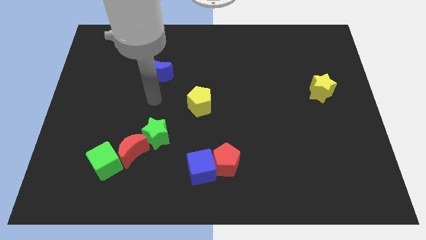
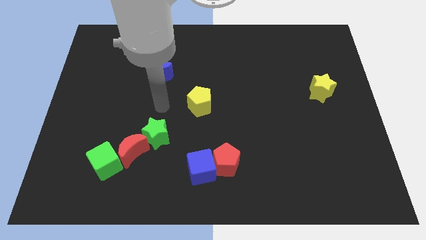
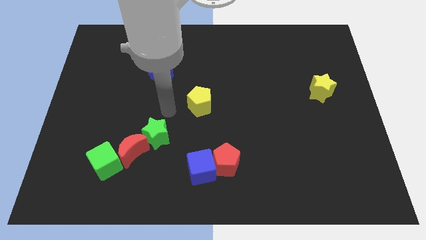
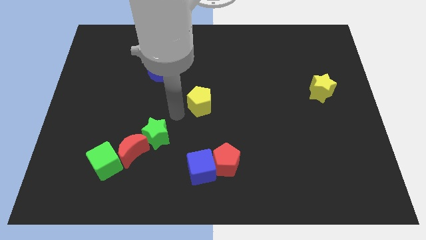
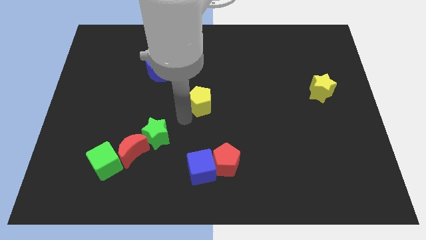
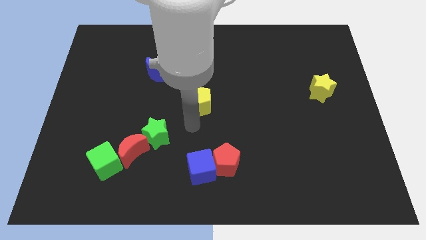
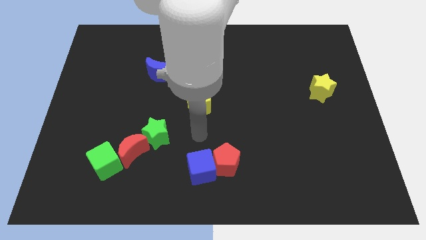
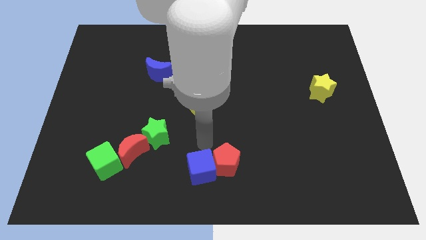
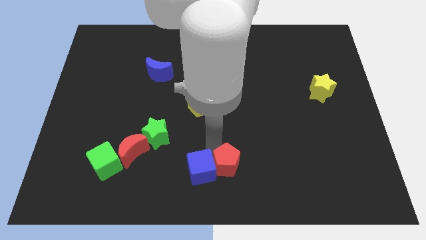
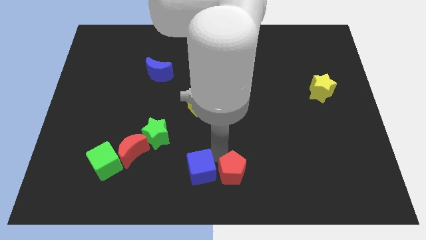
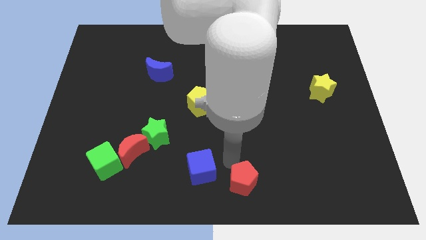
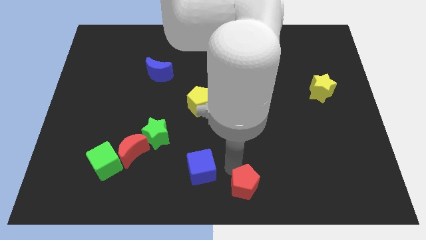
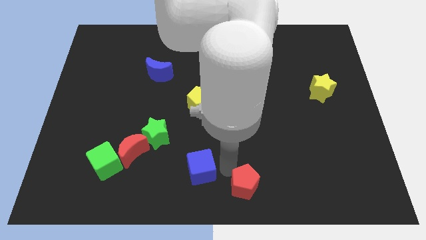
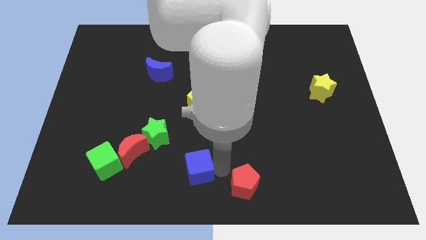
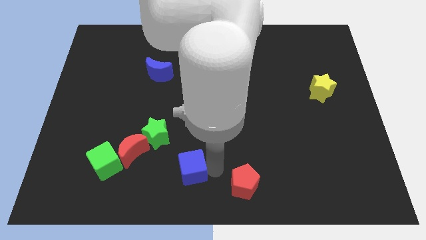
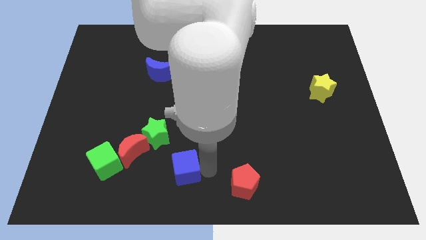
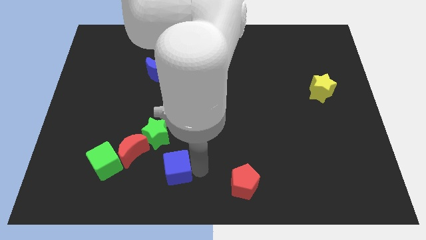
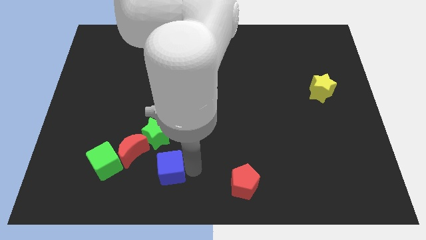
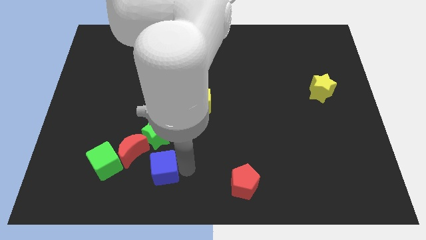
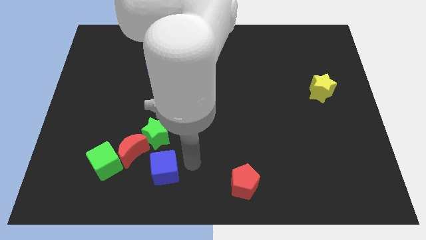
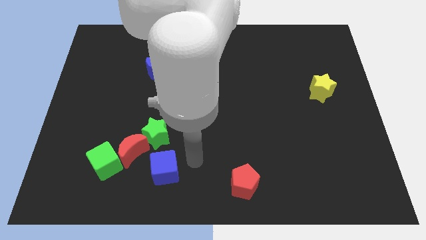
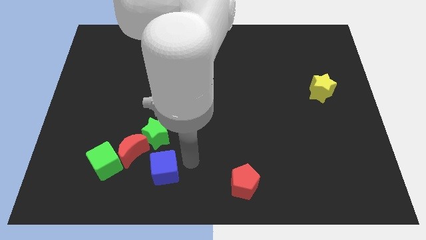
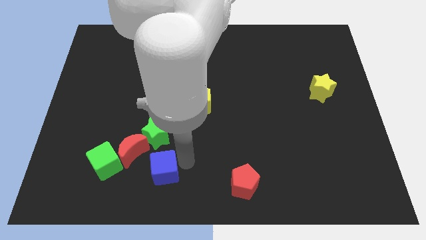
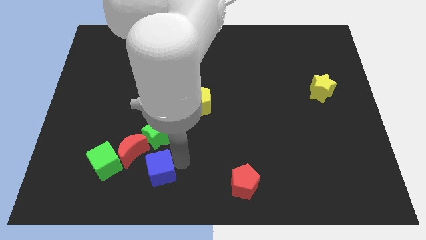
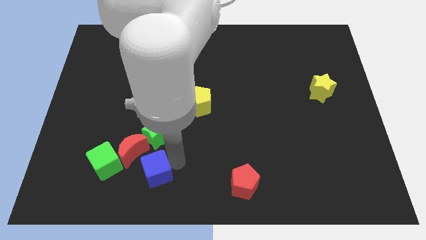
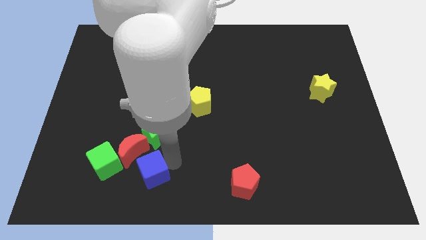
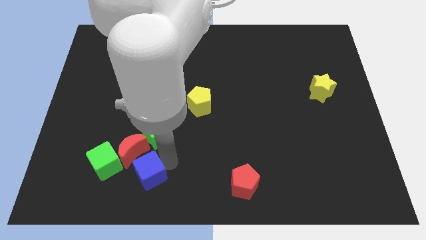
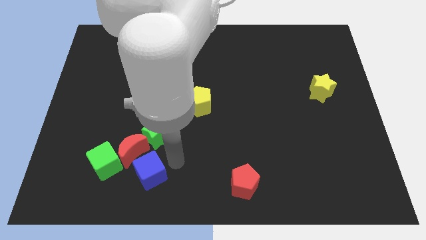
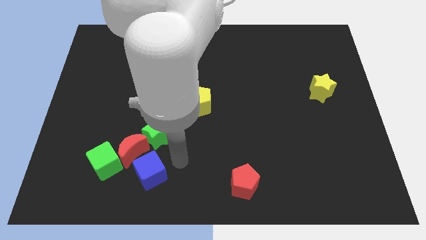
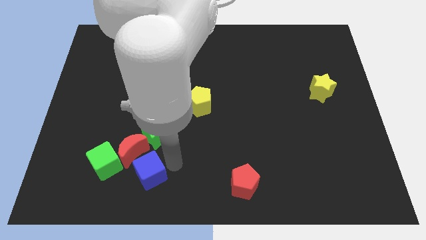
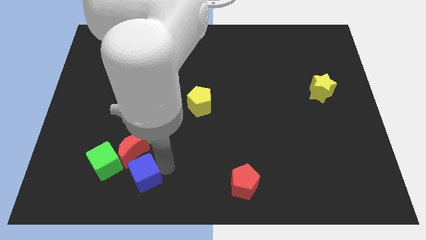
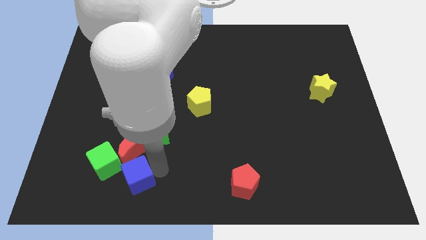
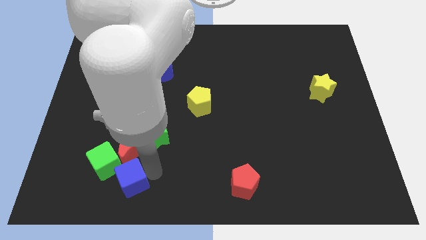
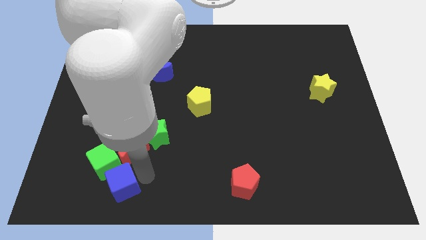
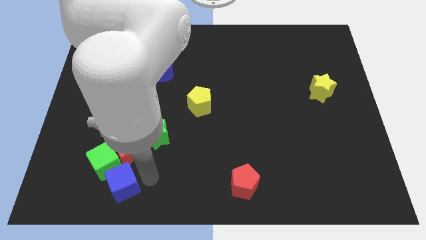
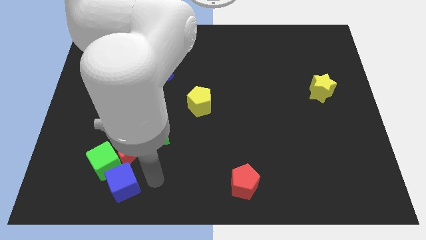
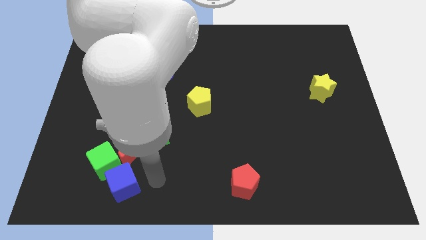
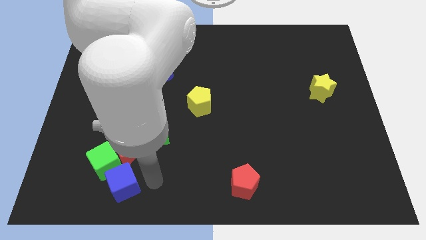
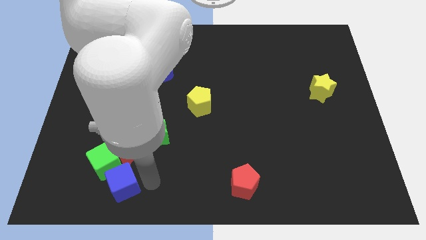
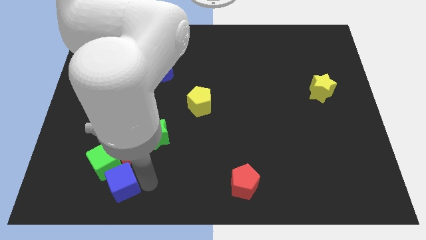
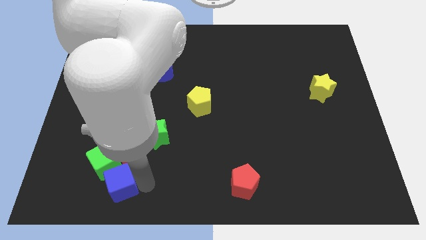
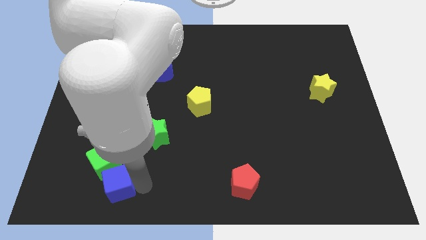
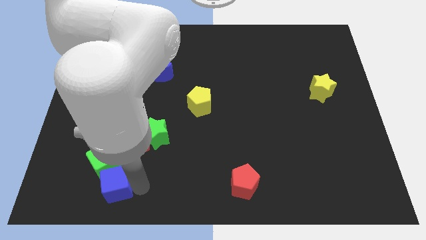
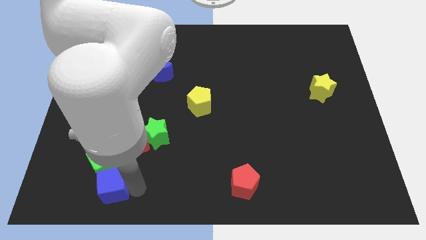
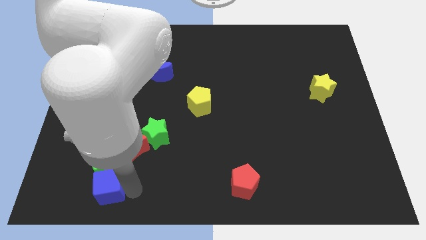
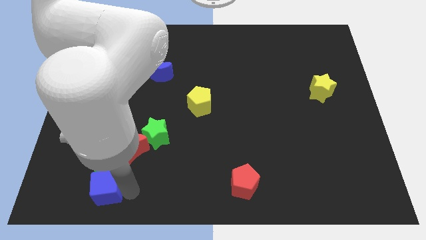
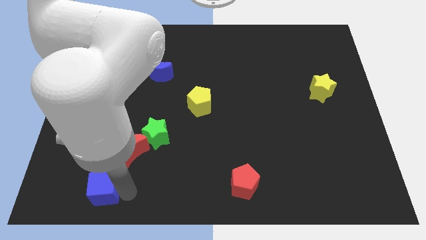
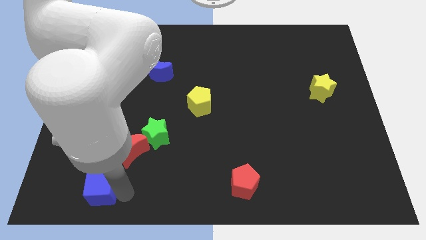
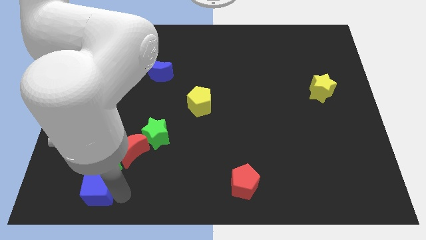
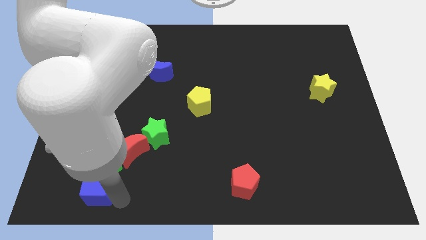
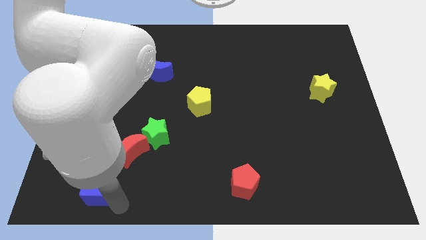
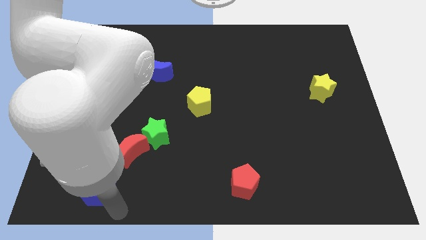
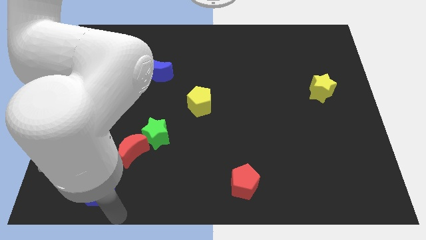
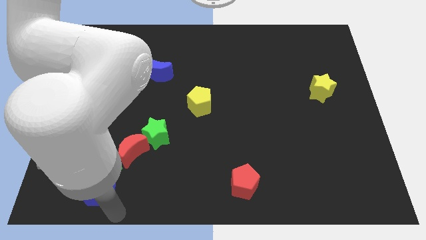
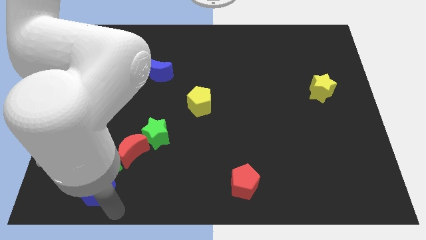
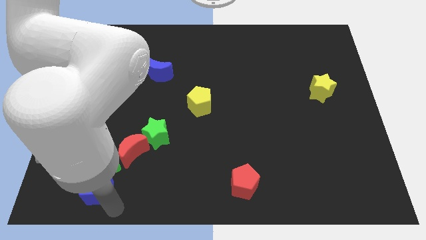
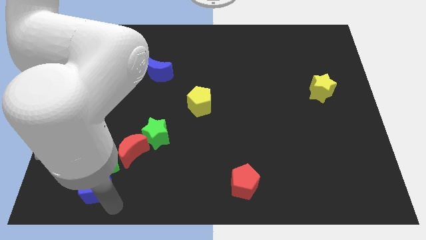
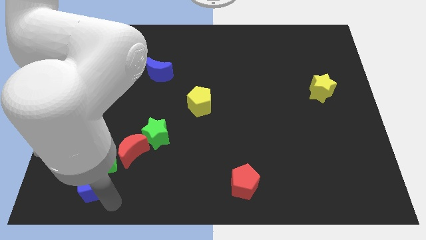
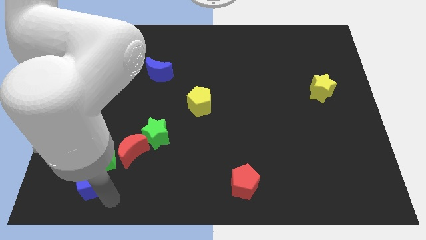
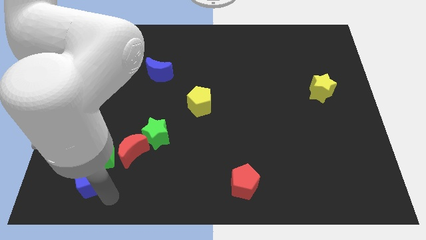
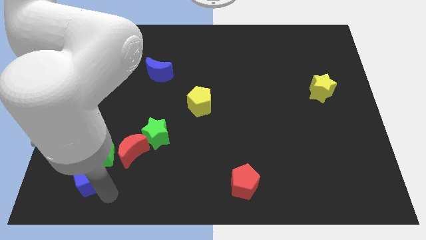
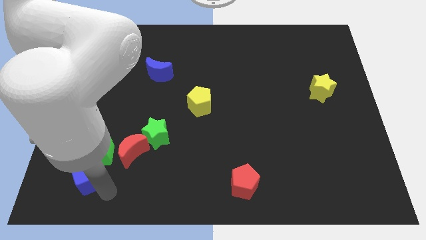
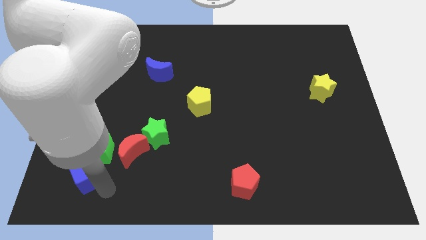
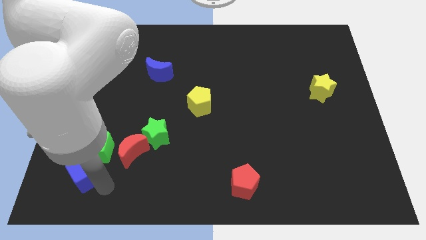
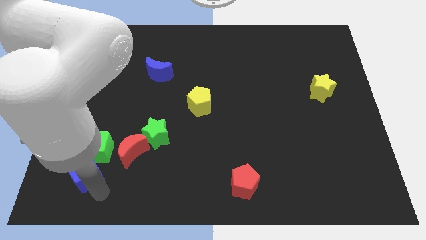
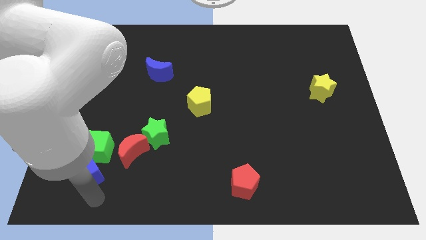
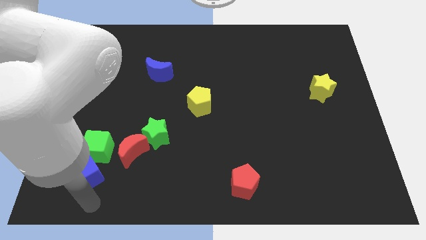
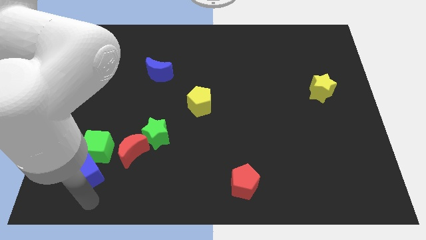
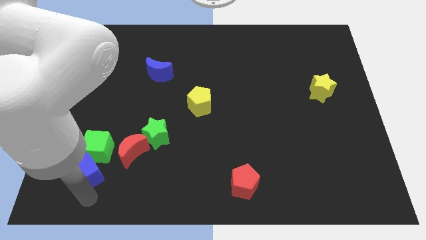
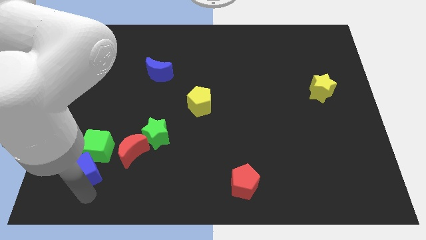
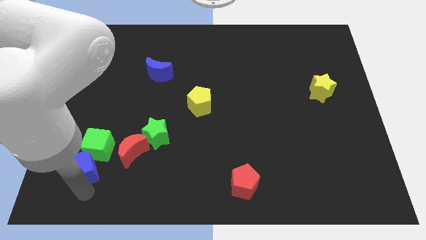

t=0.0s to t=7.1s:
put the blue cube just left of the red moon

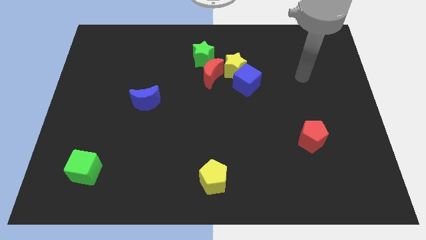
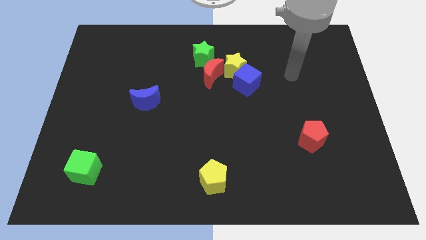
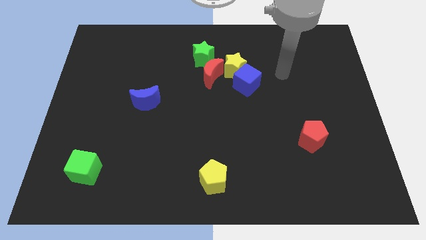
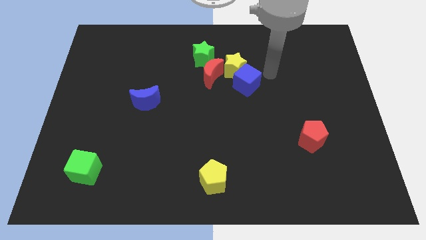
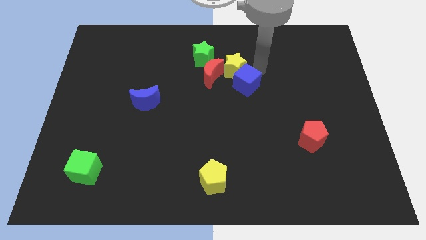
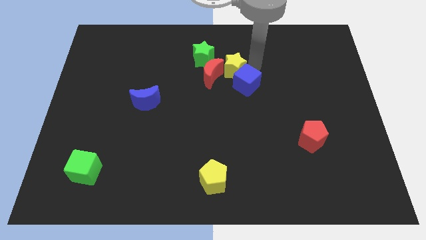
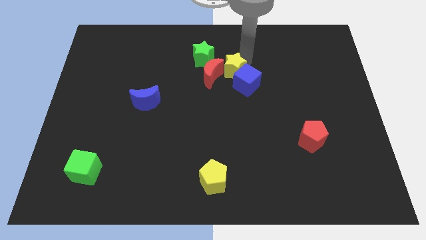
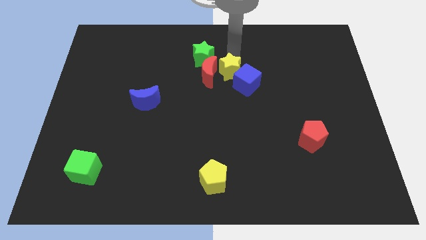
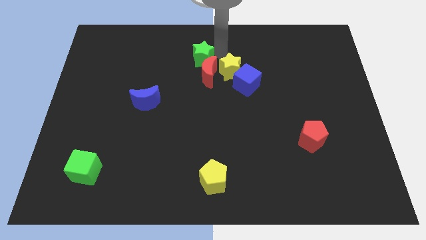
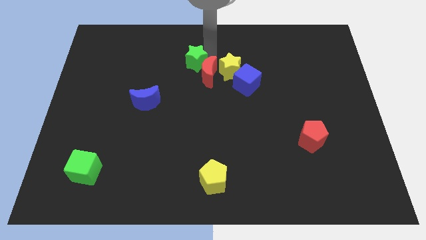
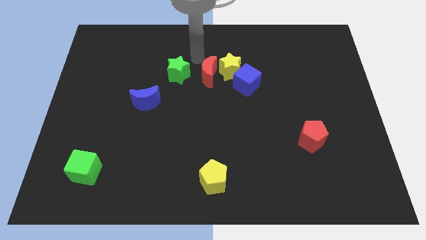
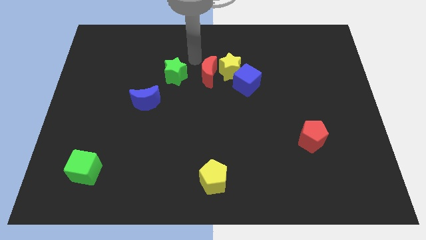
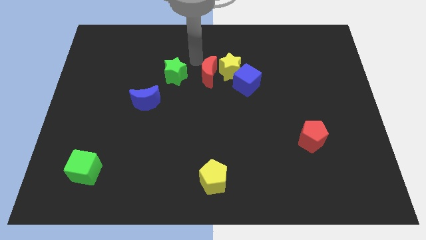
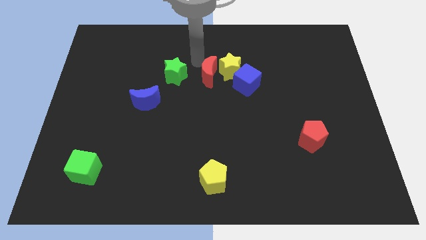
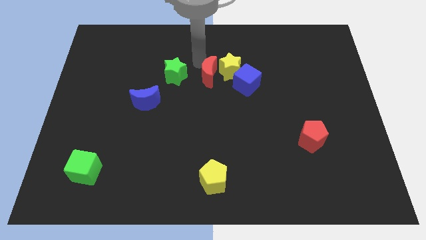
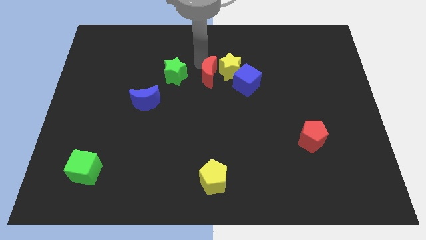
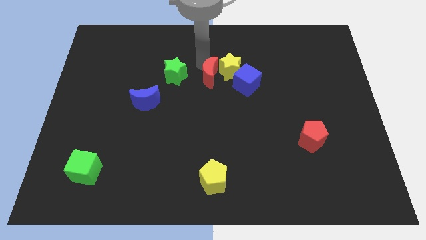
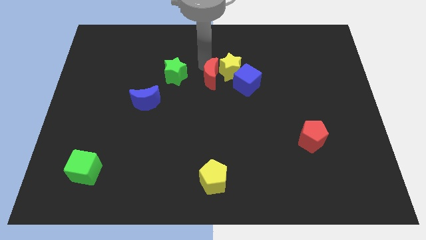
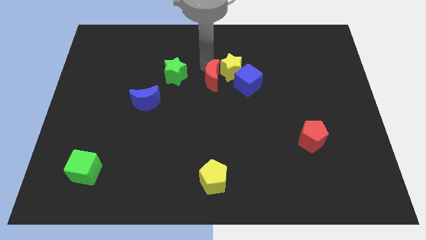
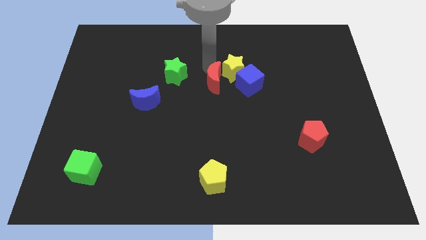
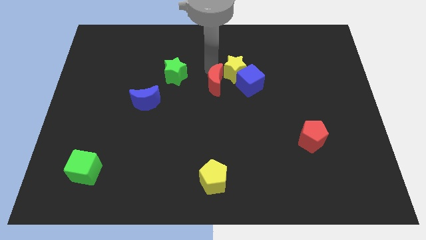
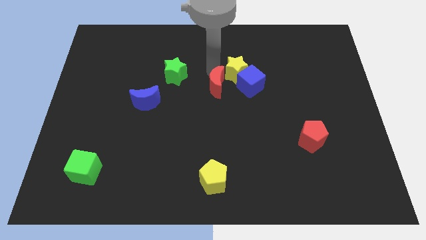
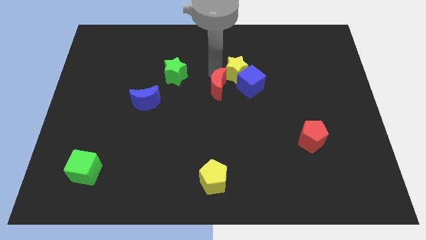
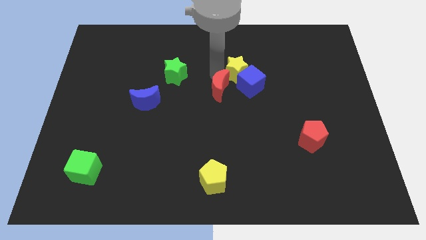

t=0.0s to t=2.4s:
move the red moon to the bottom left of the blue cube
